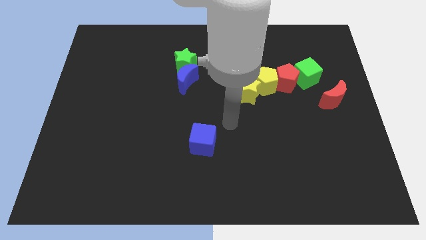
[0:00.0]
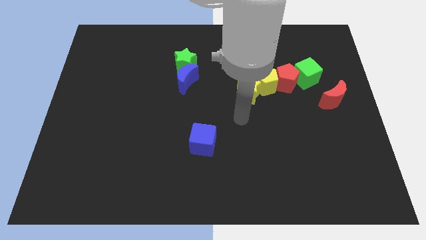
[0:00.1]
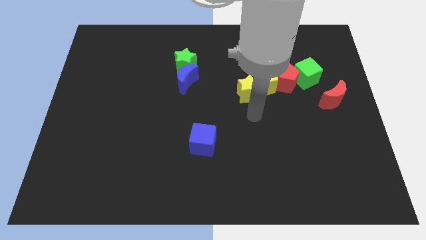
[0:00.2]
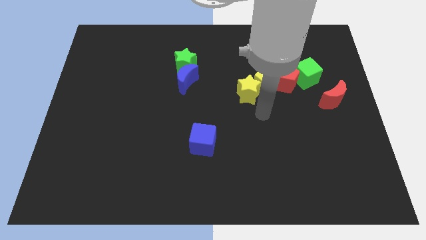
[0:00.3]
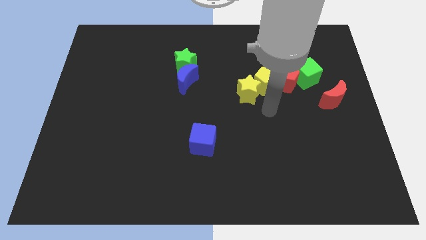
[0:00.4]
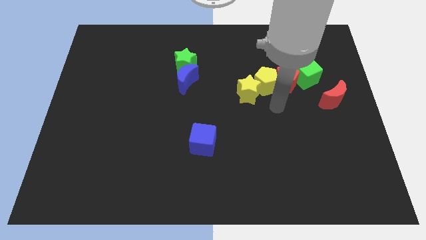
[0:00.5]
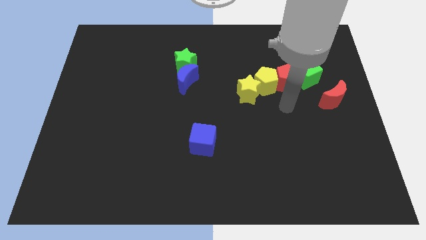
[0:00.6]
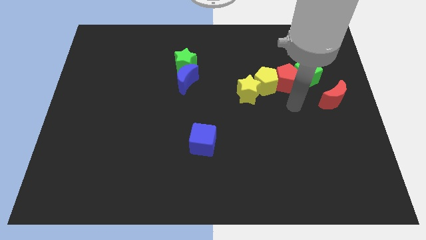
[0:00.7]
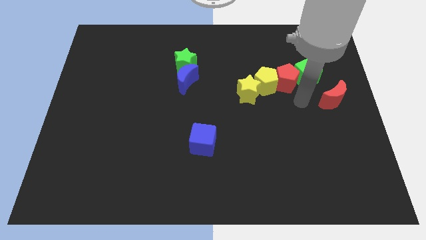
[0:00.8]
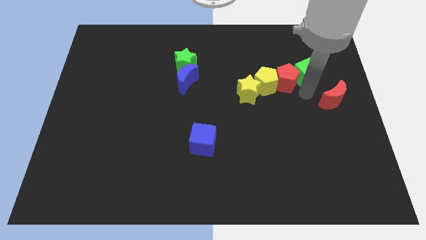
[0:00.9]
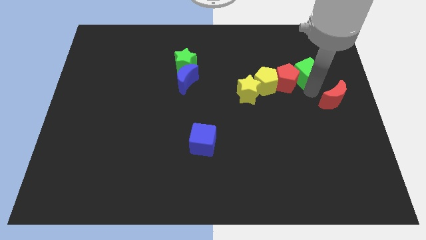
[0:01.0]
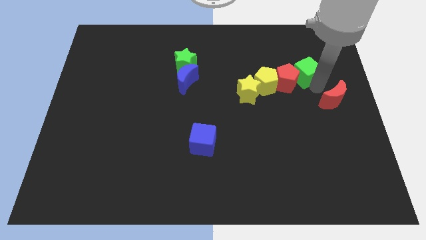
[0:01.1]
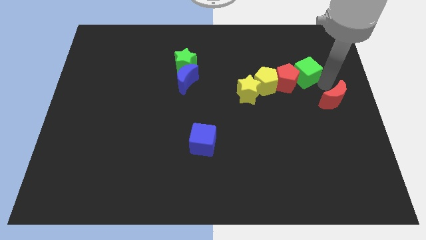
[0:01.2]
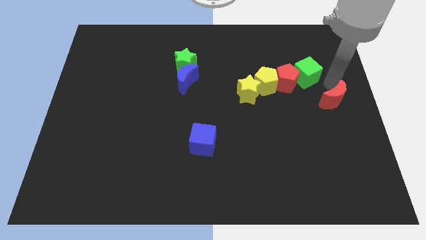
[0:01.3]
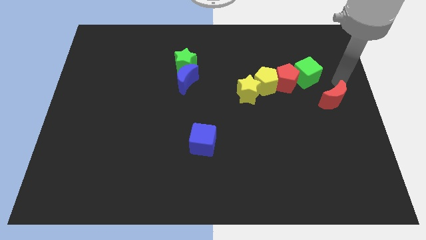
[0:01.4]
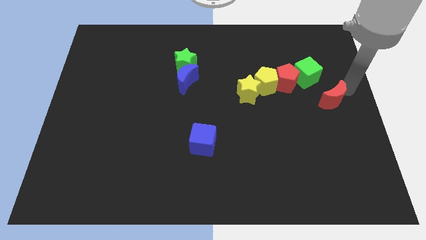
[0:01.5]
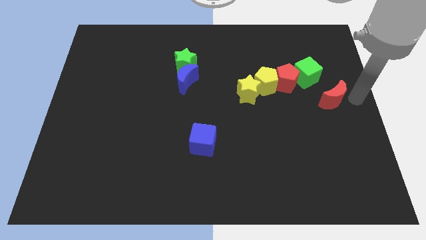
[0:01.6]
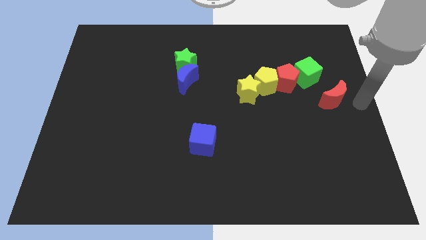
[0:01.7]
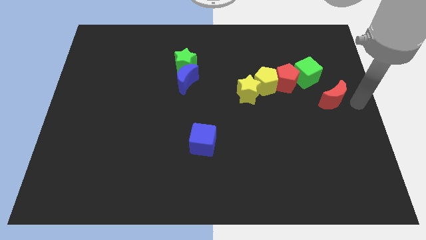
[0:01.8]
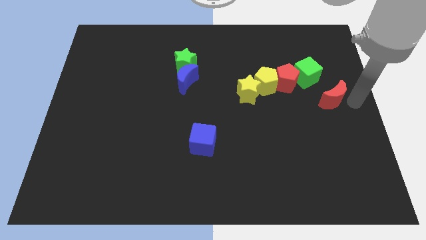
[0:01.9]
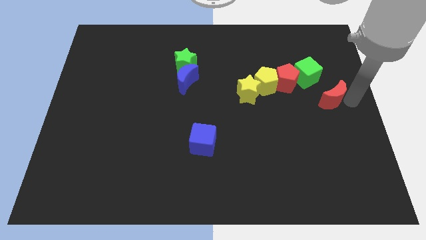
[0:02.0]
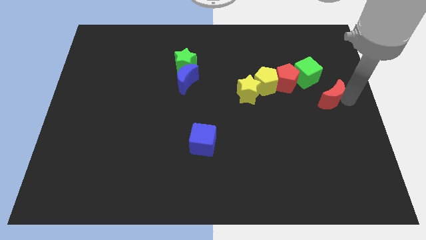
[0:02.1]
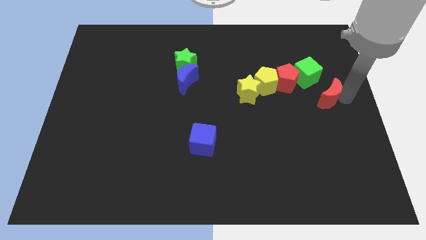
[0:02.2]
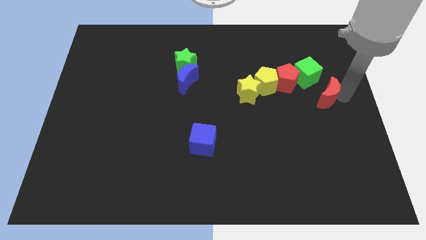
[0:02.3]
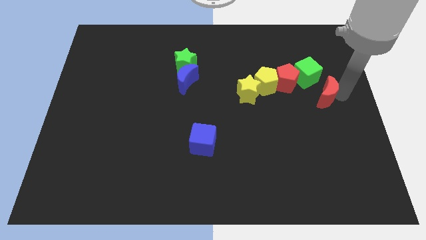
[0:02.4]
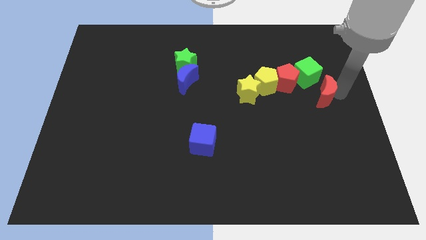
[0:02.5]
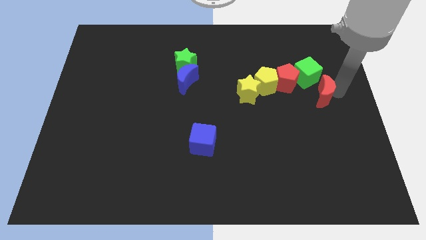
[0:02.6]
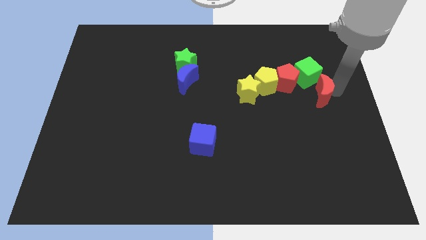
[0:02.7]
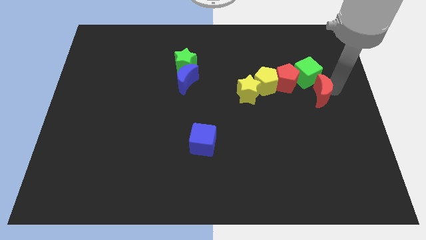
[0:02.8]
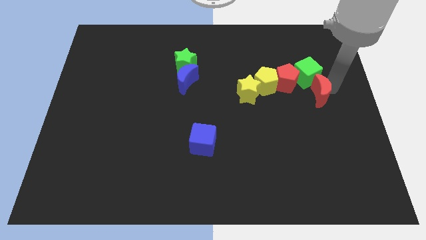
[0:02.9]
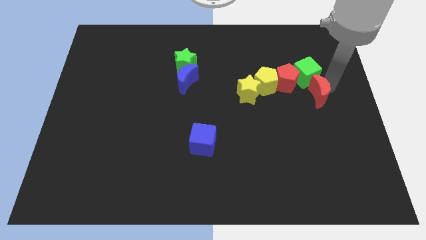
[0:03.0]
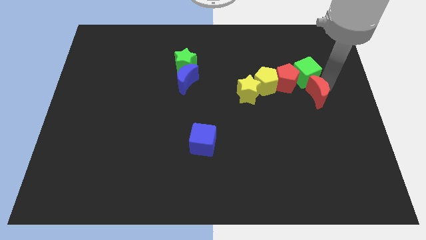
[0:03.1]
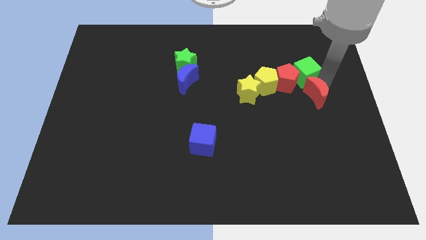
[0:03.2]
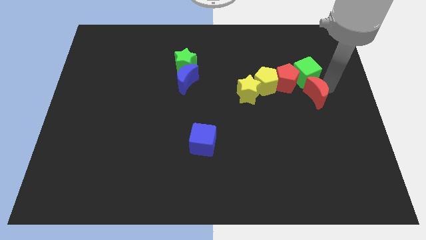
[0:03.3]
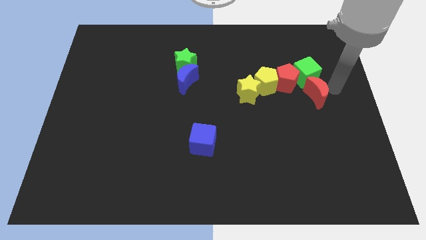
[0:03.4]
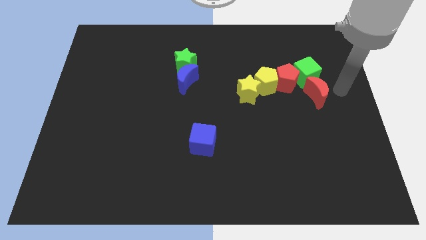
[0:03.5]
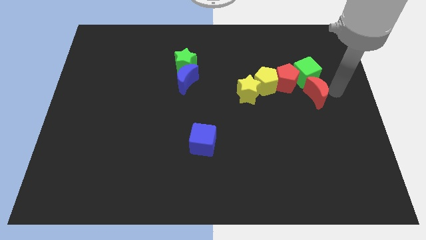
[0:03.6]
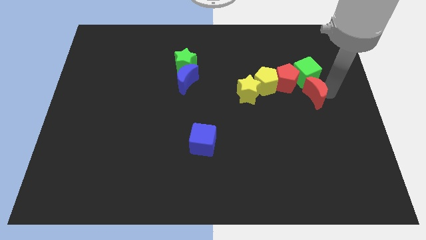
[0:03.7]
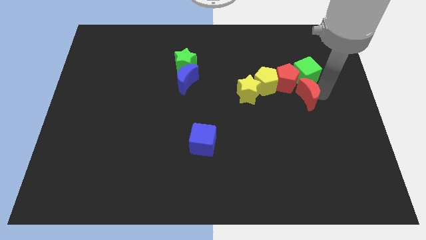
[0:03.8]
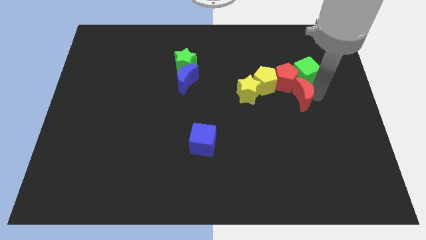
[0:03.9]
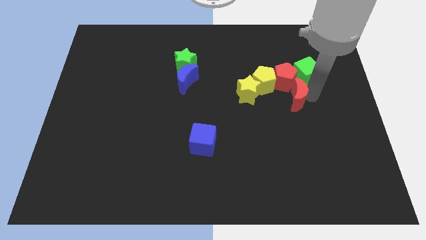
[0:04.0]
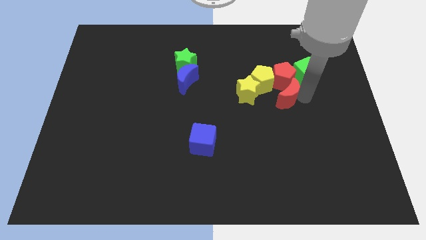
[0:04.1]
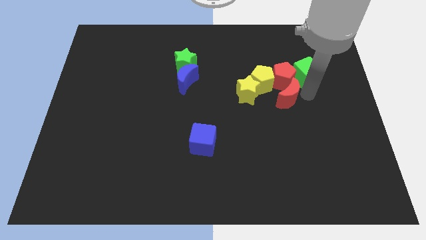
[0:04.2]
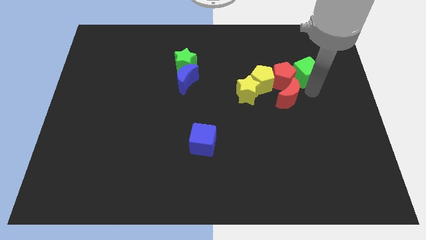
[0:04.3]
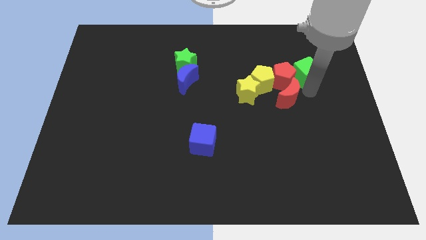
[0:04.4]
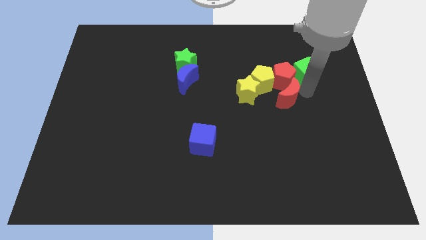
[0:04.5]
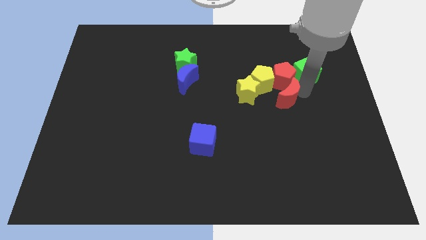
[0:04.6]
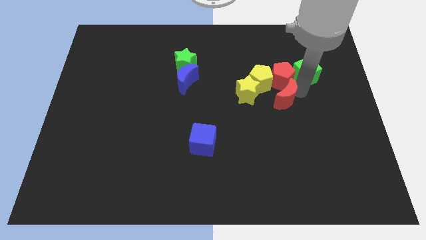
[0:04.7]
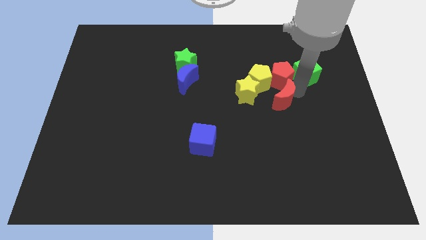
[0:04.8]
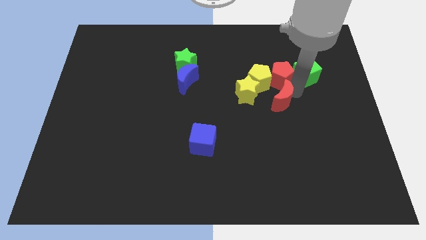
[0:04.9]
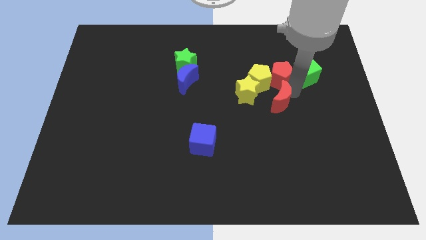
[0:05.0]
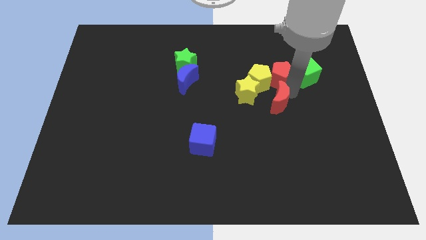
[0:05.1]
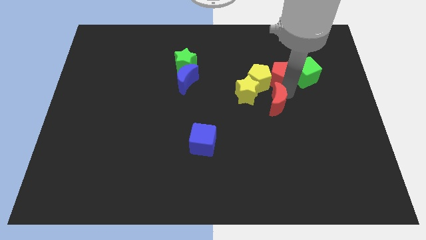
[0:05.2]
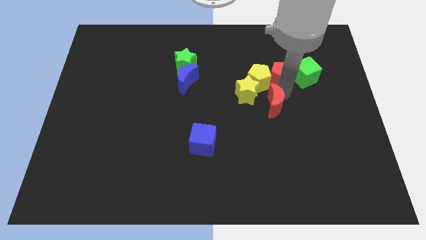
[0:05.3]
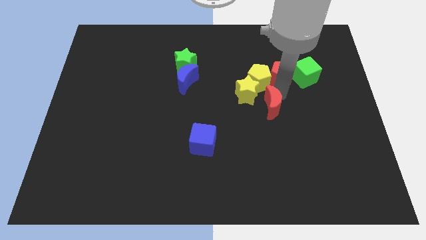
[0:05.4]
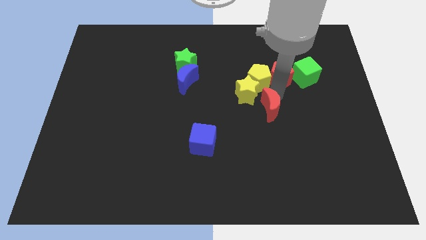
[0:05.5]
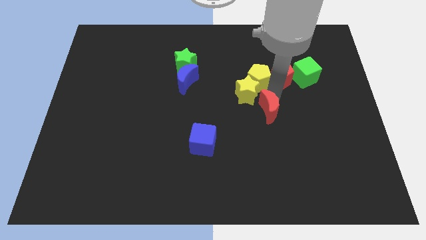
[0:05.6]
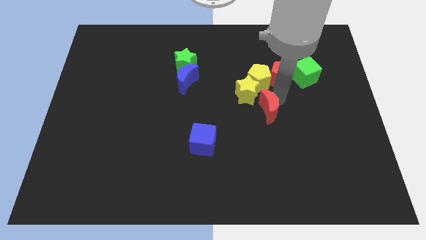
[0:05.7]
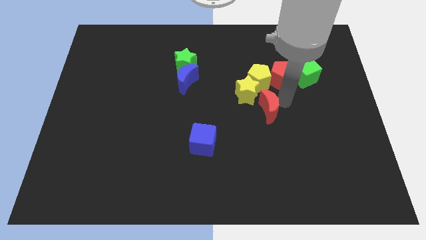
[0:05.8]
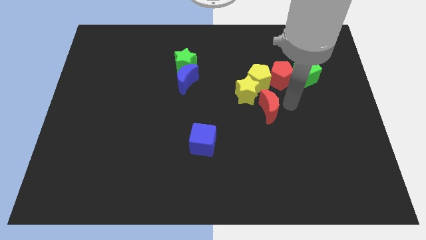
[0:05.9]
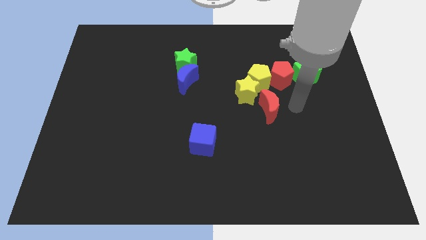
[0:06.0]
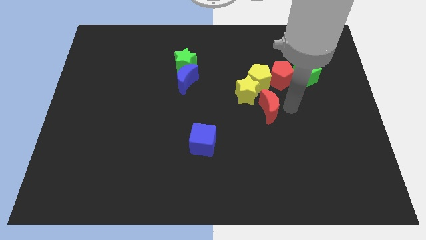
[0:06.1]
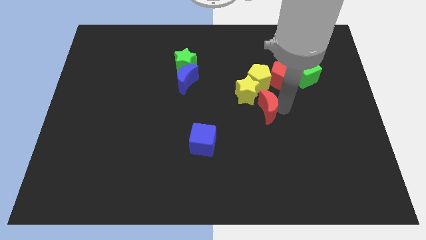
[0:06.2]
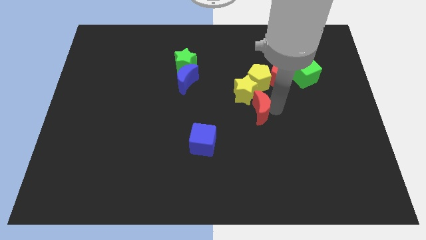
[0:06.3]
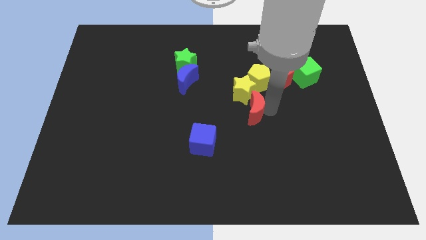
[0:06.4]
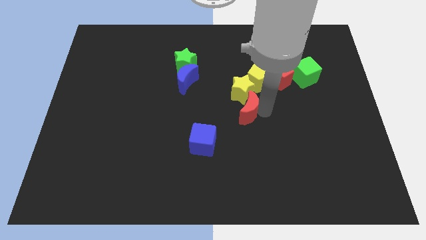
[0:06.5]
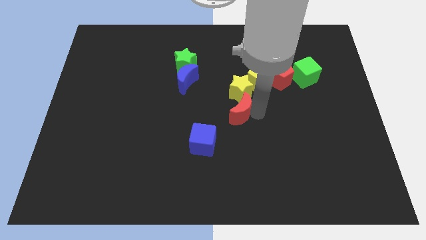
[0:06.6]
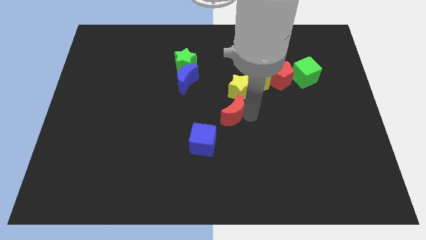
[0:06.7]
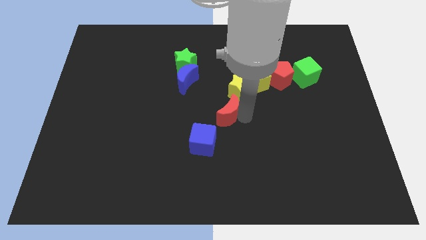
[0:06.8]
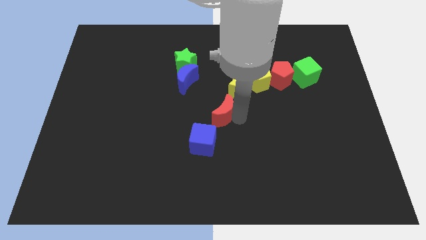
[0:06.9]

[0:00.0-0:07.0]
move the red moon to the top of the blue cube

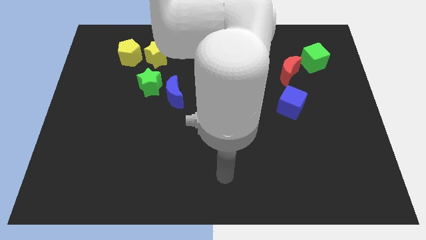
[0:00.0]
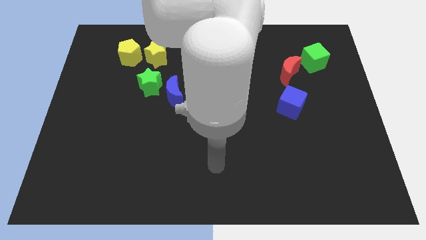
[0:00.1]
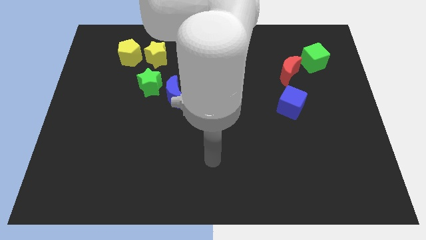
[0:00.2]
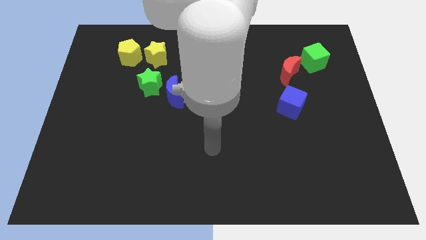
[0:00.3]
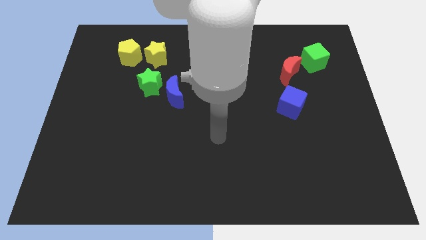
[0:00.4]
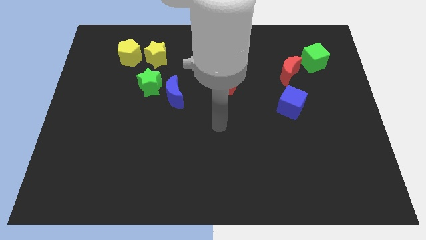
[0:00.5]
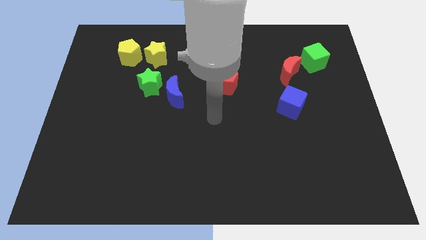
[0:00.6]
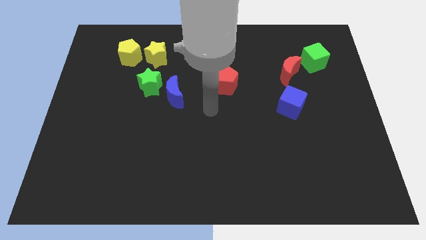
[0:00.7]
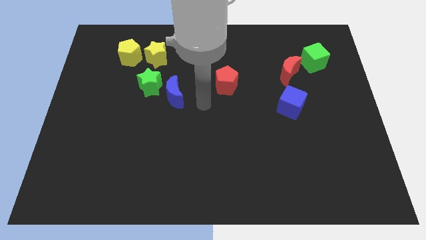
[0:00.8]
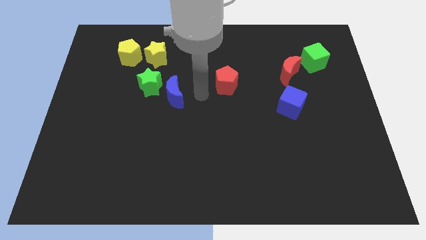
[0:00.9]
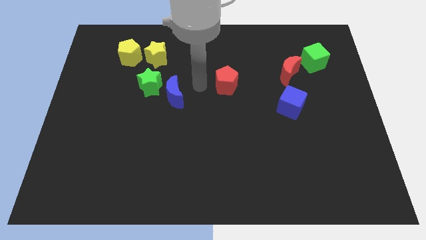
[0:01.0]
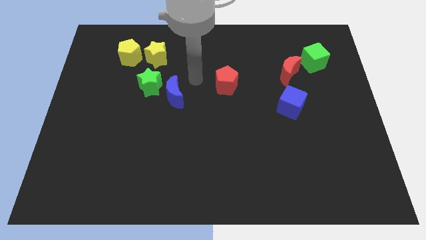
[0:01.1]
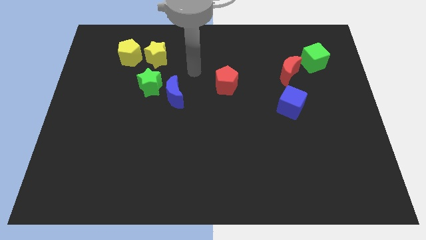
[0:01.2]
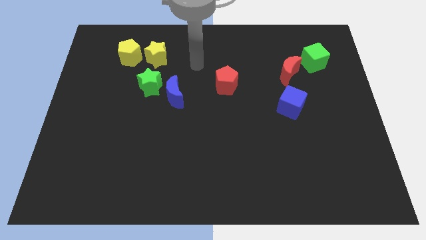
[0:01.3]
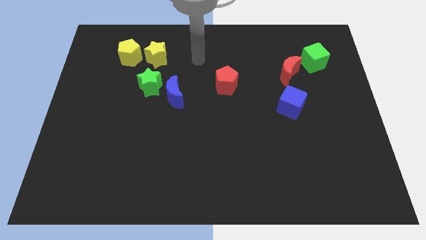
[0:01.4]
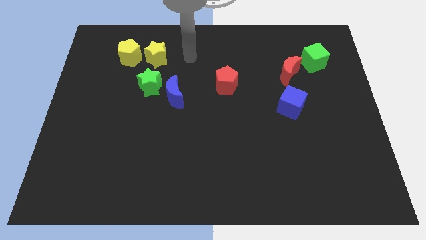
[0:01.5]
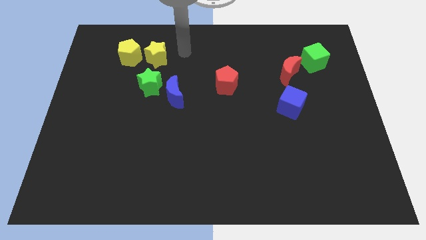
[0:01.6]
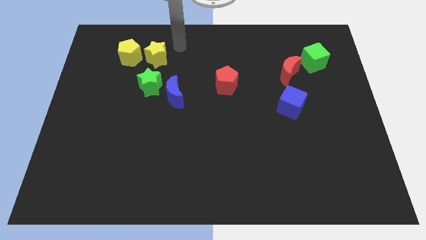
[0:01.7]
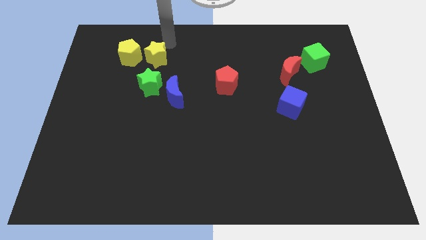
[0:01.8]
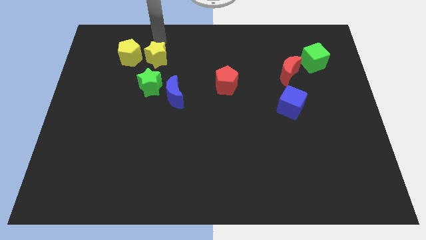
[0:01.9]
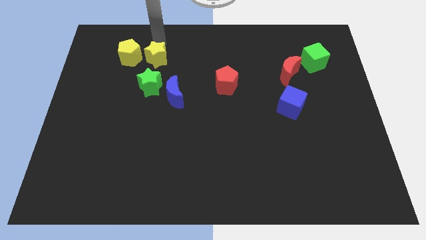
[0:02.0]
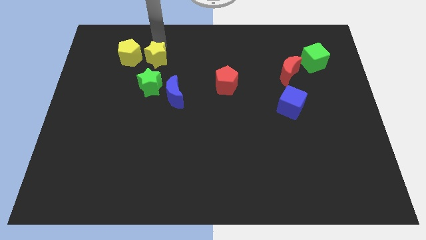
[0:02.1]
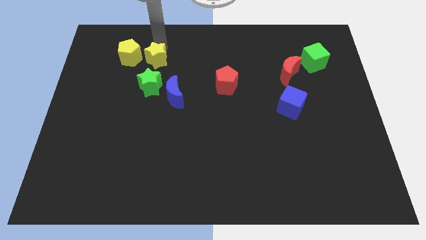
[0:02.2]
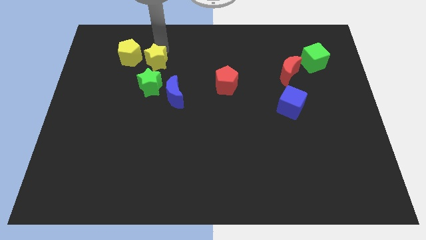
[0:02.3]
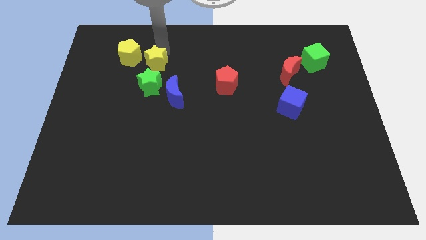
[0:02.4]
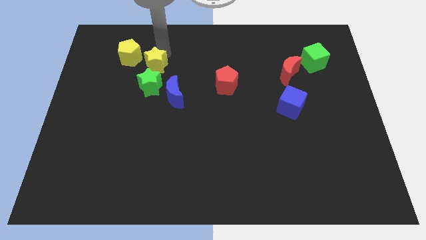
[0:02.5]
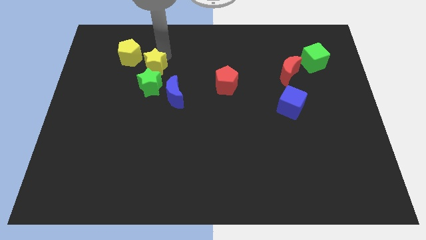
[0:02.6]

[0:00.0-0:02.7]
slide the yellow star diagonally up and to the left of the blue moon
